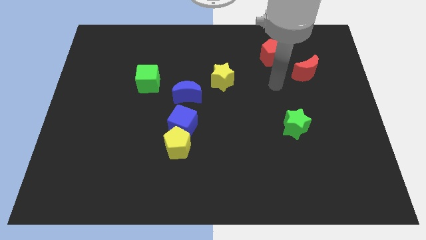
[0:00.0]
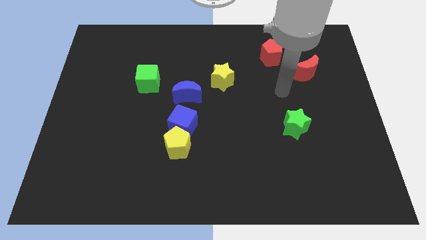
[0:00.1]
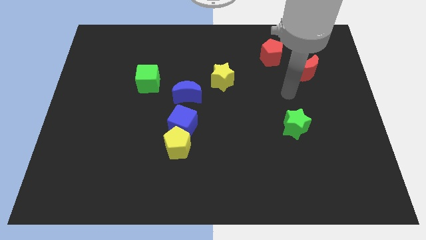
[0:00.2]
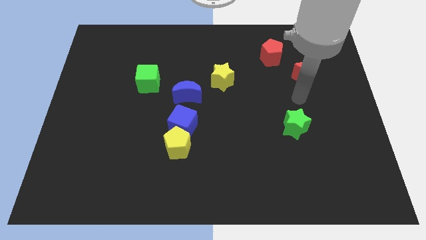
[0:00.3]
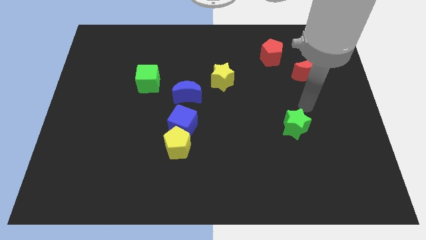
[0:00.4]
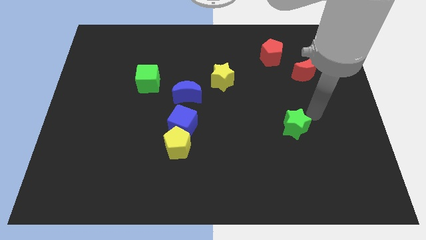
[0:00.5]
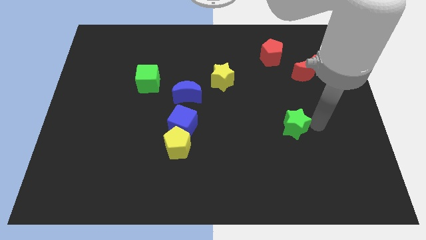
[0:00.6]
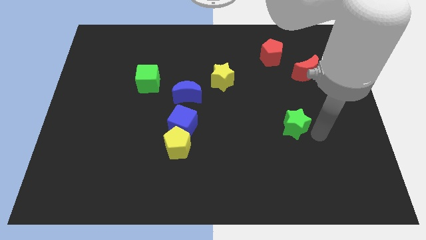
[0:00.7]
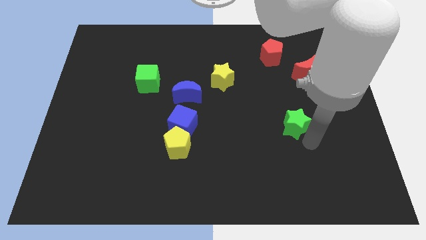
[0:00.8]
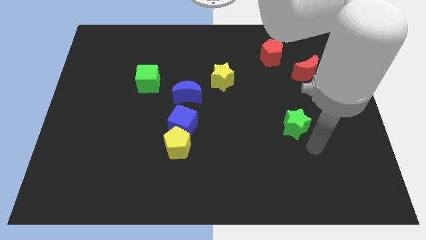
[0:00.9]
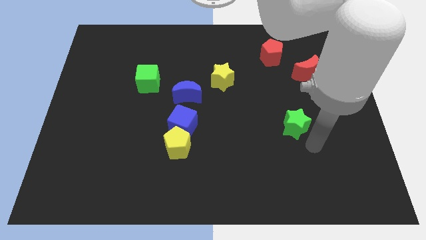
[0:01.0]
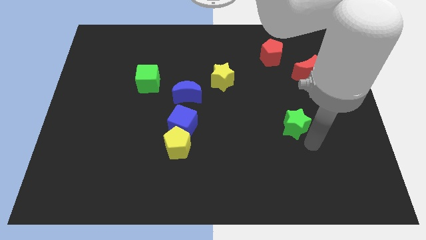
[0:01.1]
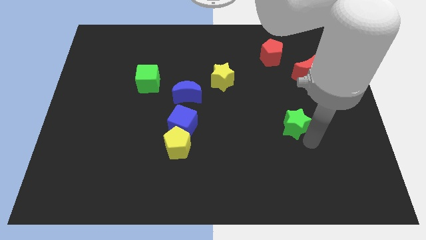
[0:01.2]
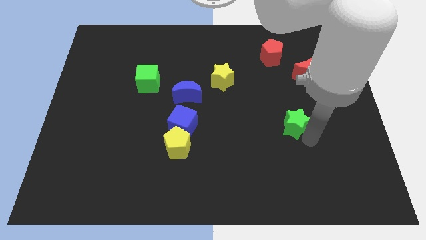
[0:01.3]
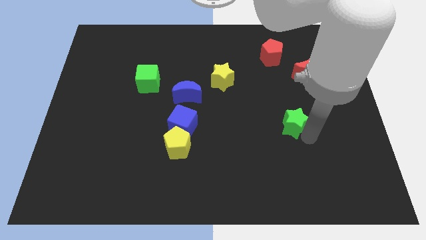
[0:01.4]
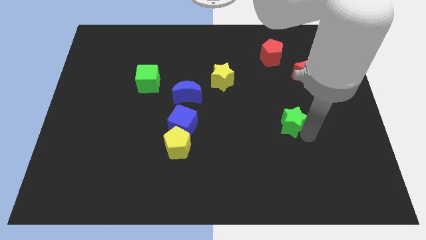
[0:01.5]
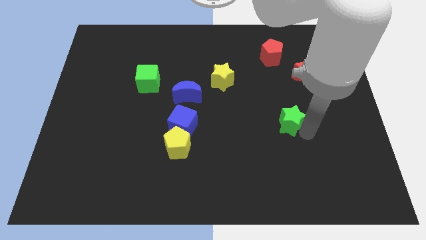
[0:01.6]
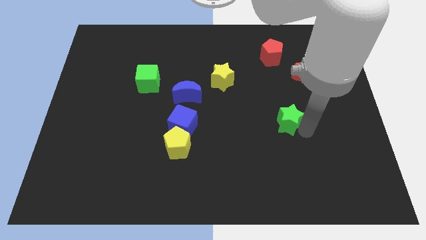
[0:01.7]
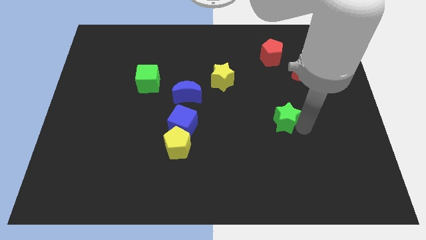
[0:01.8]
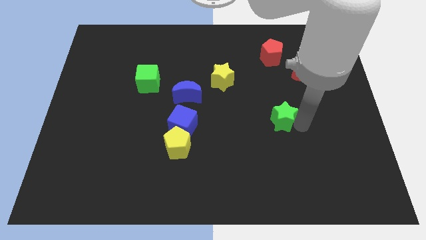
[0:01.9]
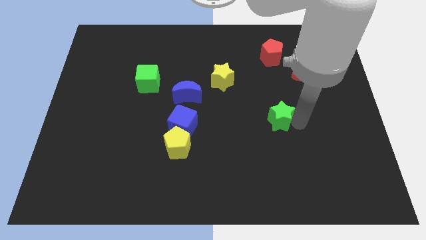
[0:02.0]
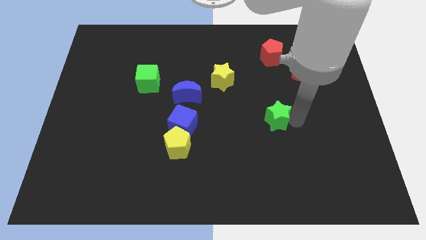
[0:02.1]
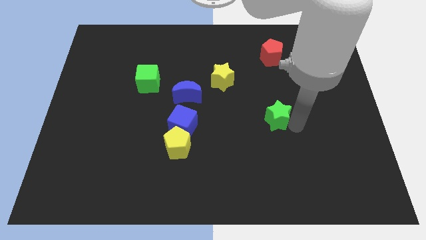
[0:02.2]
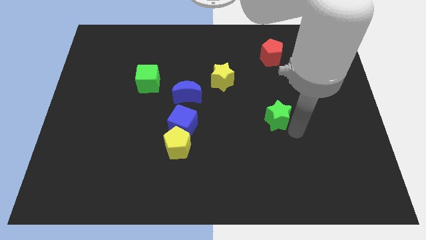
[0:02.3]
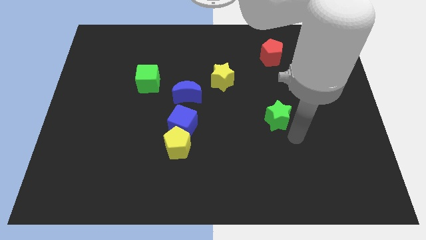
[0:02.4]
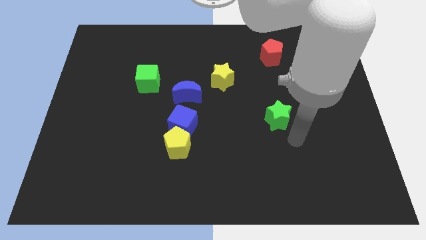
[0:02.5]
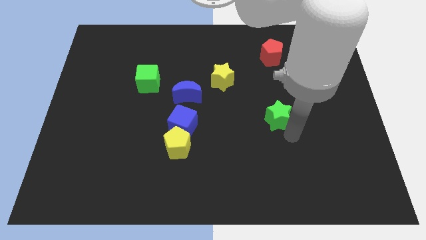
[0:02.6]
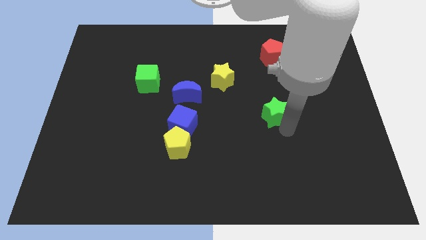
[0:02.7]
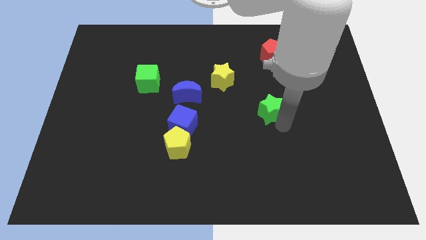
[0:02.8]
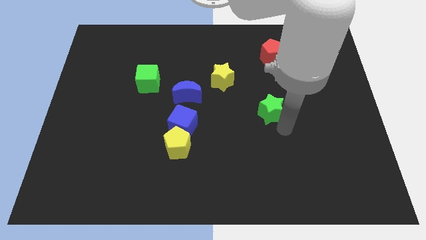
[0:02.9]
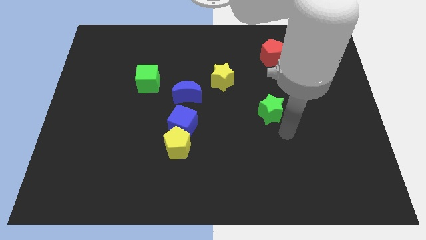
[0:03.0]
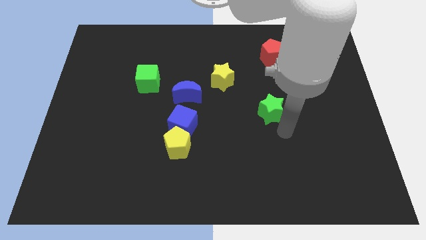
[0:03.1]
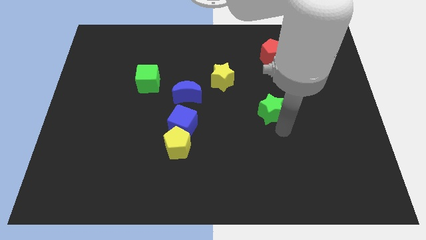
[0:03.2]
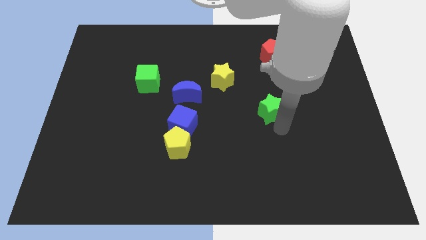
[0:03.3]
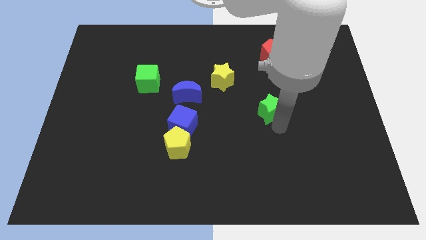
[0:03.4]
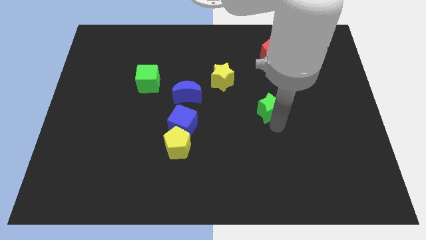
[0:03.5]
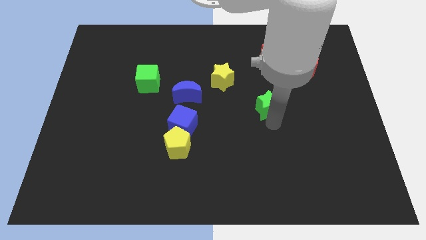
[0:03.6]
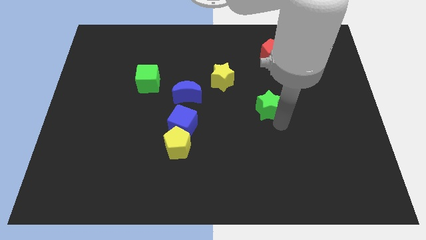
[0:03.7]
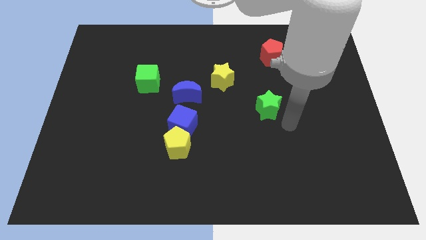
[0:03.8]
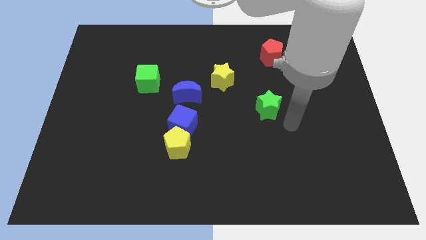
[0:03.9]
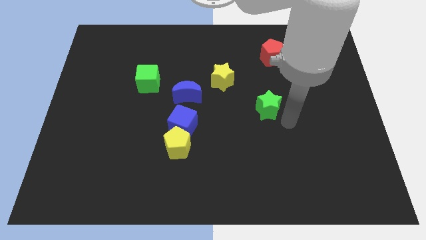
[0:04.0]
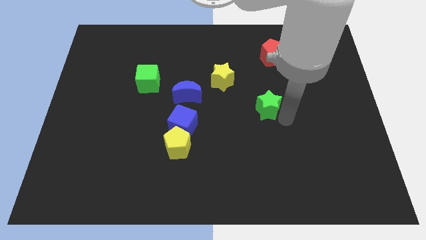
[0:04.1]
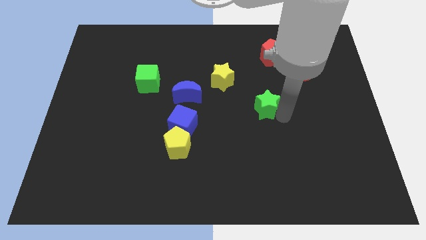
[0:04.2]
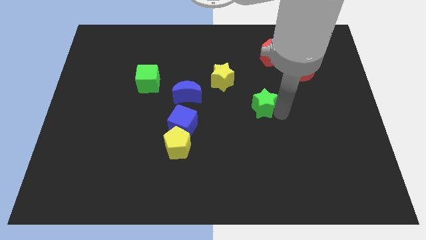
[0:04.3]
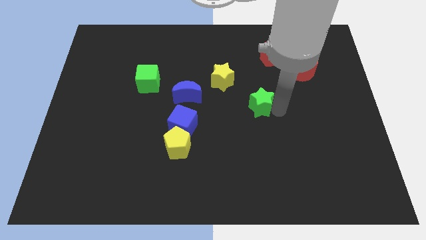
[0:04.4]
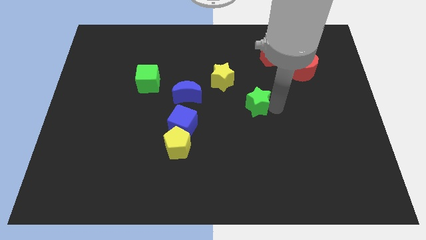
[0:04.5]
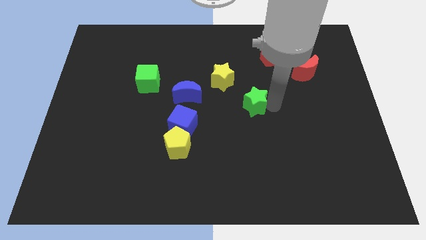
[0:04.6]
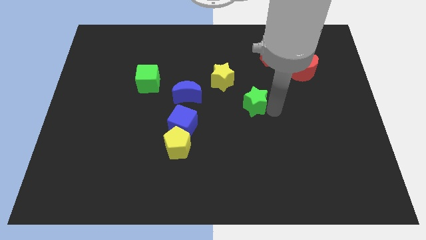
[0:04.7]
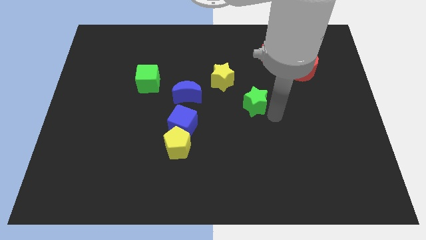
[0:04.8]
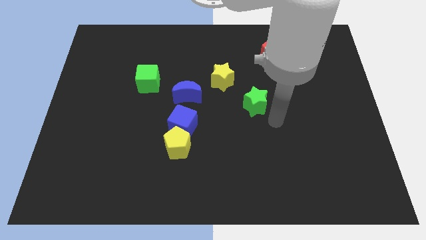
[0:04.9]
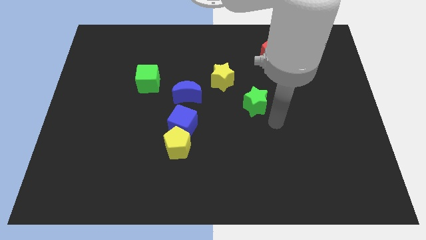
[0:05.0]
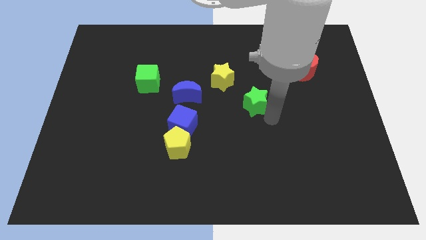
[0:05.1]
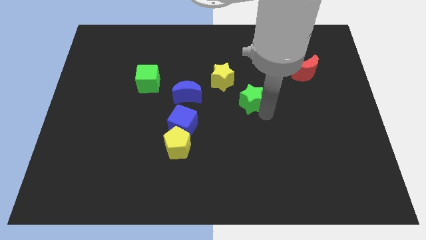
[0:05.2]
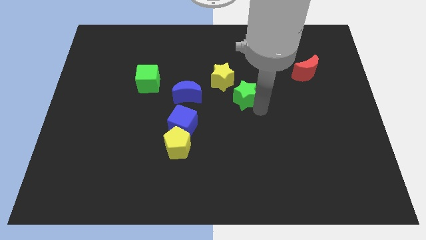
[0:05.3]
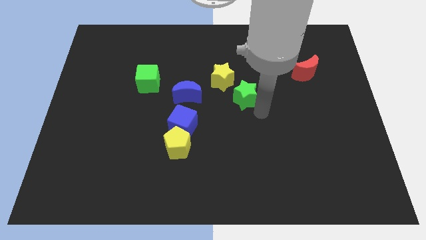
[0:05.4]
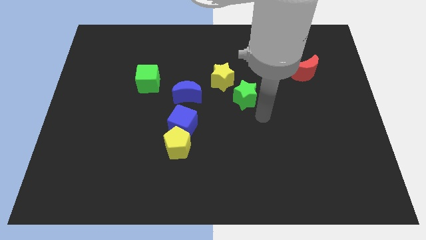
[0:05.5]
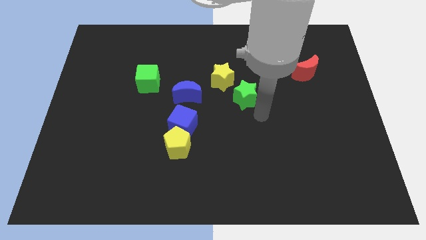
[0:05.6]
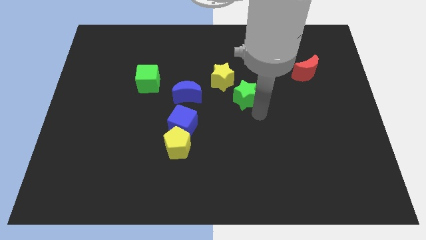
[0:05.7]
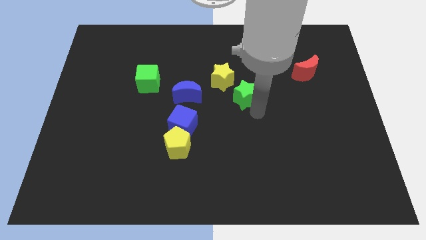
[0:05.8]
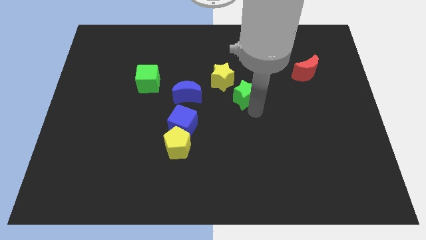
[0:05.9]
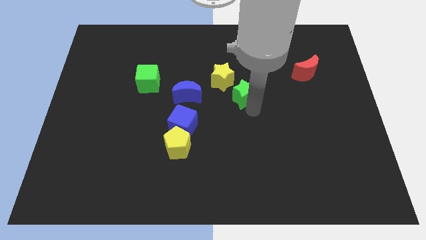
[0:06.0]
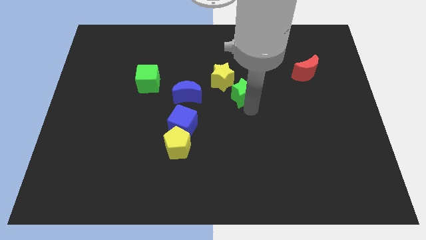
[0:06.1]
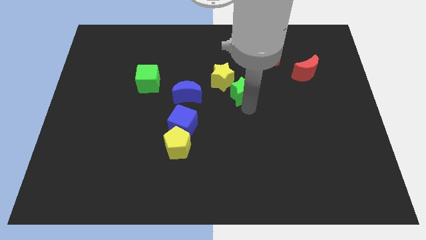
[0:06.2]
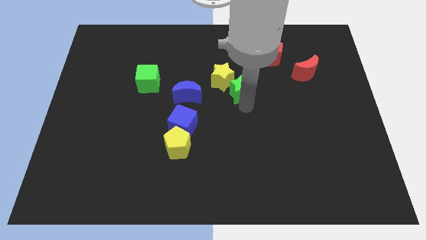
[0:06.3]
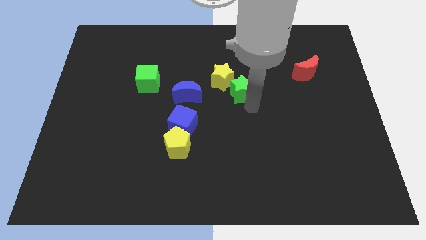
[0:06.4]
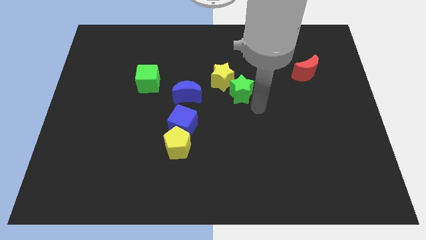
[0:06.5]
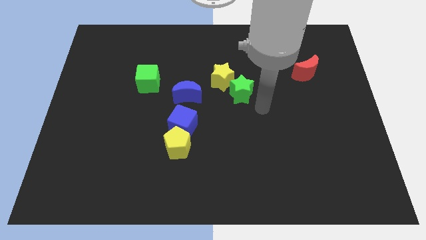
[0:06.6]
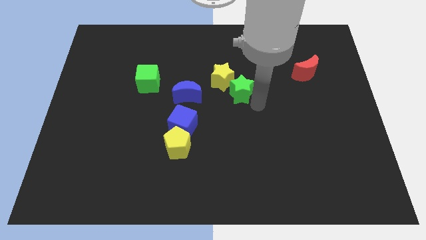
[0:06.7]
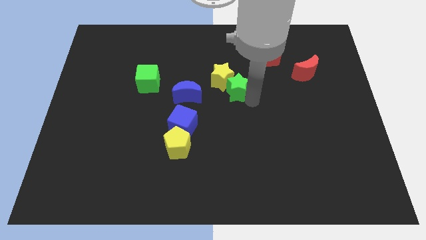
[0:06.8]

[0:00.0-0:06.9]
put the green star next to the yellow star

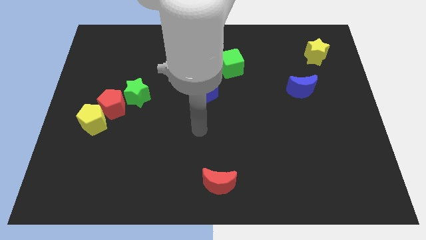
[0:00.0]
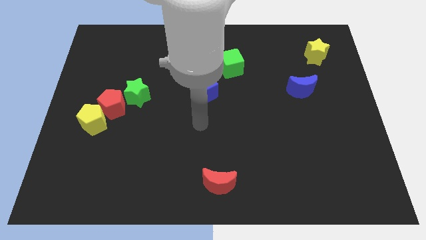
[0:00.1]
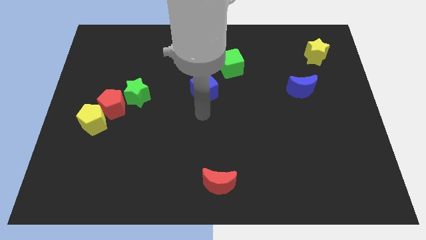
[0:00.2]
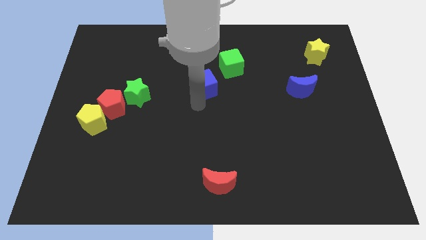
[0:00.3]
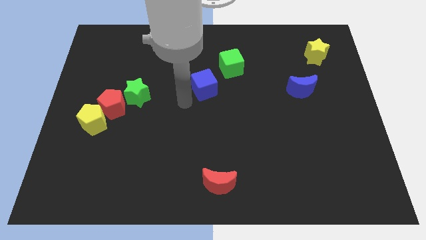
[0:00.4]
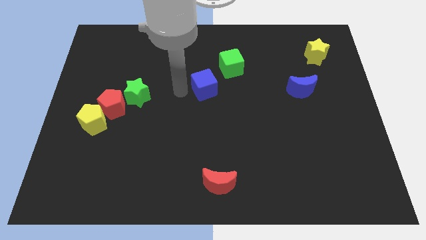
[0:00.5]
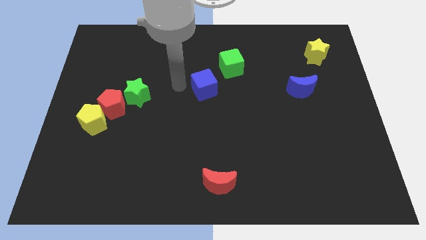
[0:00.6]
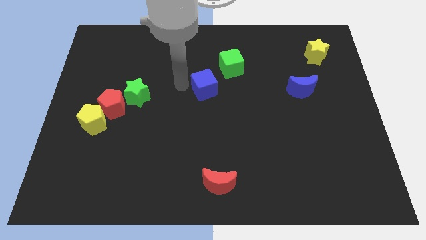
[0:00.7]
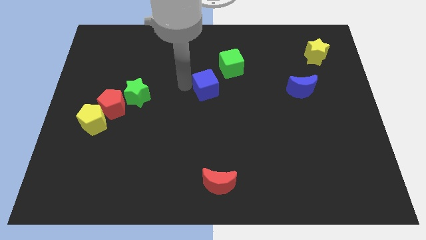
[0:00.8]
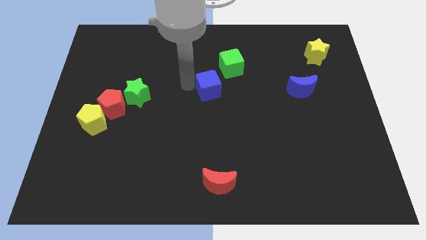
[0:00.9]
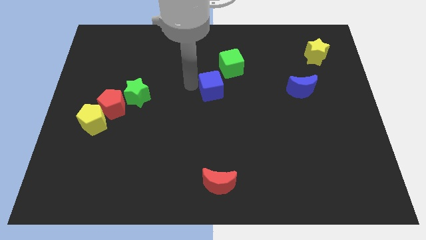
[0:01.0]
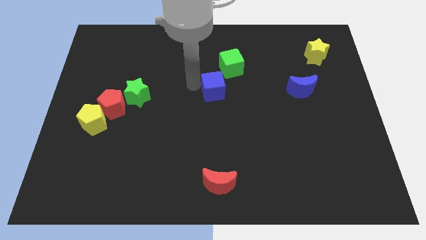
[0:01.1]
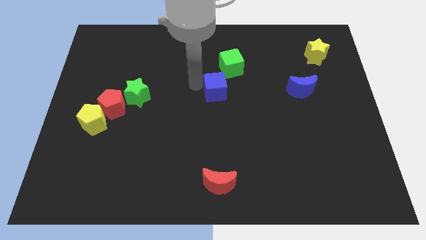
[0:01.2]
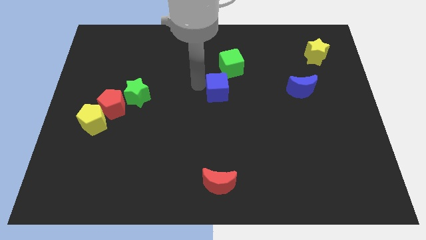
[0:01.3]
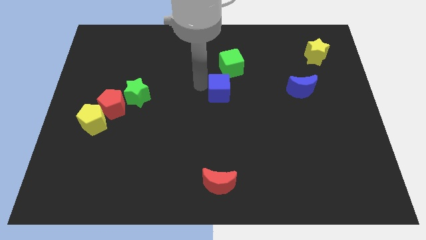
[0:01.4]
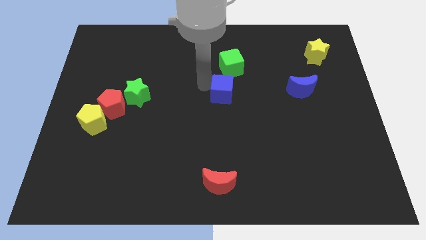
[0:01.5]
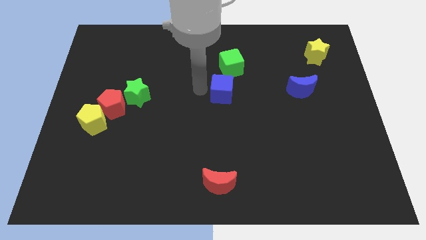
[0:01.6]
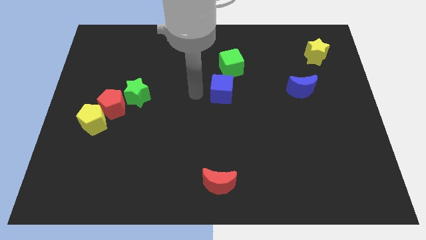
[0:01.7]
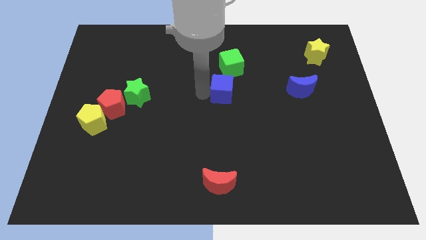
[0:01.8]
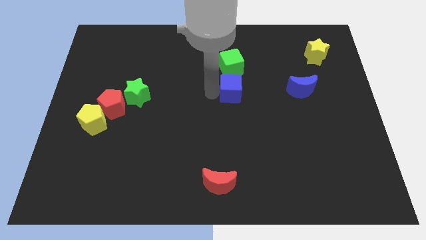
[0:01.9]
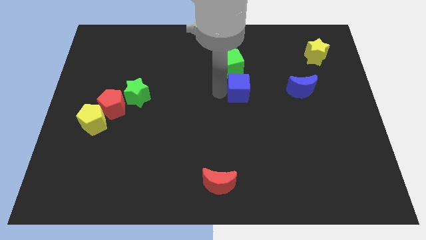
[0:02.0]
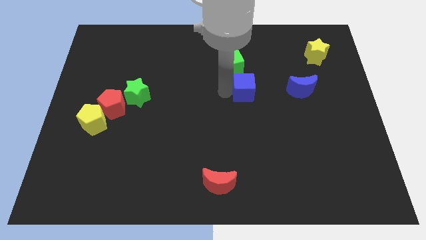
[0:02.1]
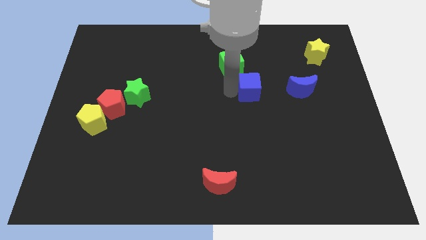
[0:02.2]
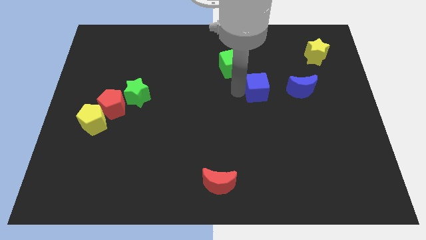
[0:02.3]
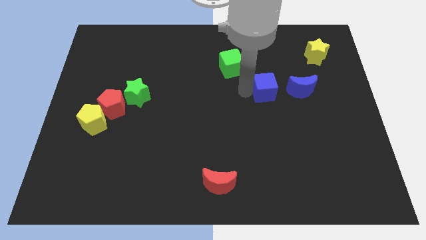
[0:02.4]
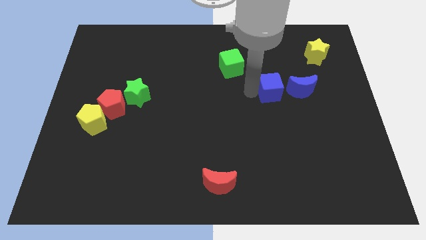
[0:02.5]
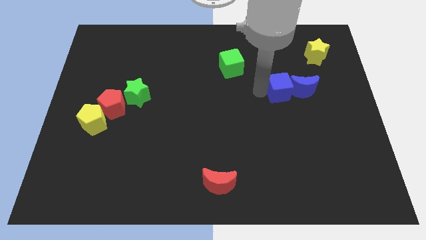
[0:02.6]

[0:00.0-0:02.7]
put the blue cube to the blue moon
